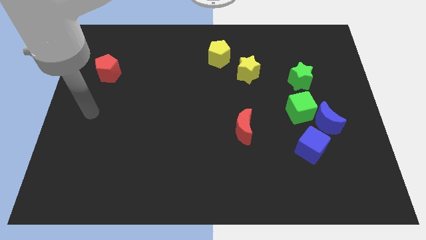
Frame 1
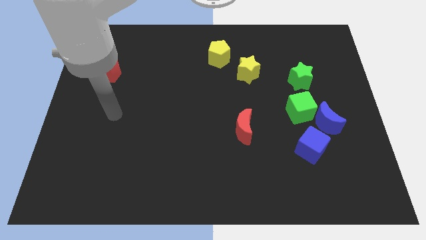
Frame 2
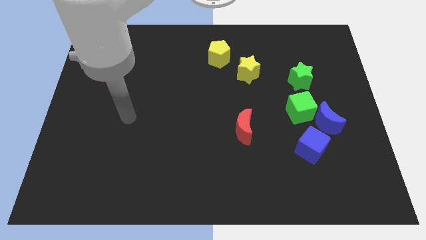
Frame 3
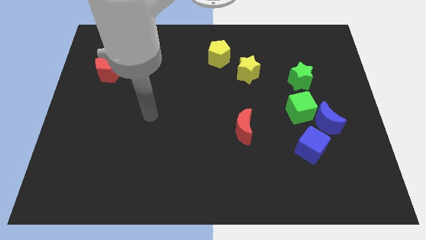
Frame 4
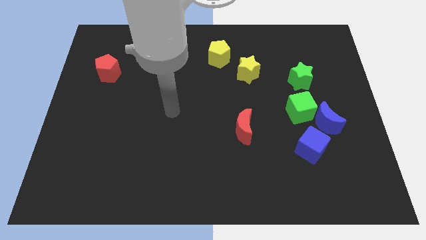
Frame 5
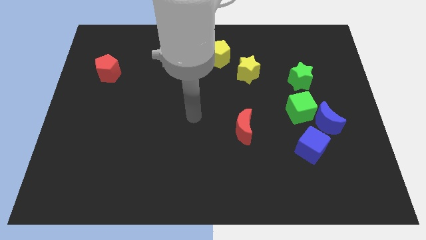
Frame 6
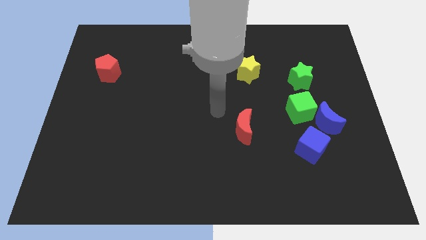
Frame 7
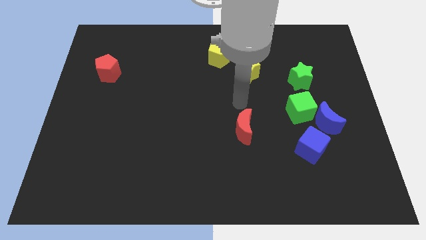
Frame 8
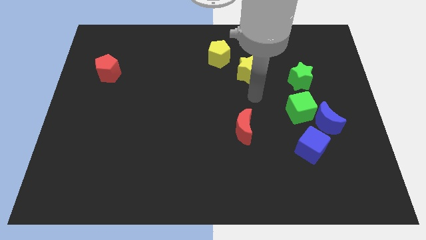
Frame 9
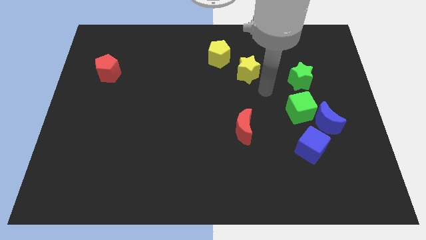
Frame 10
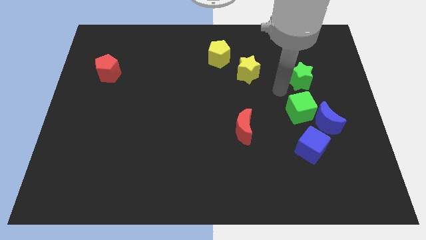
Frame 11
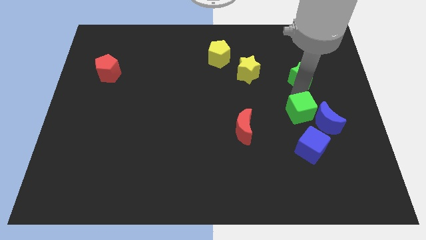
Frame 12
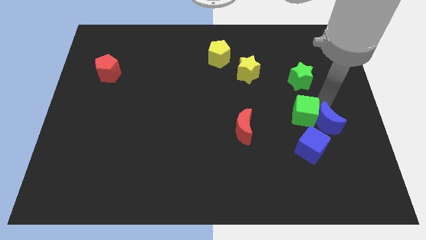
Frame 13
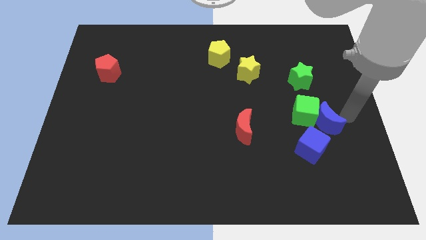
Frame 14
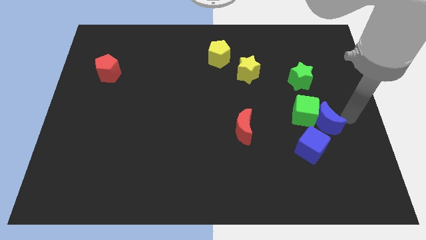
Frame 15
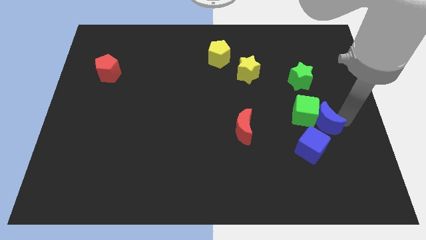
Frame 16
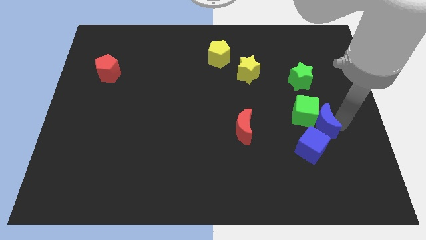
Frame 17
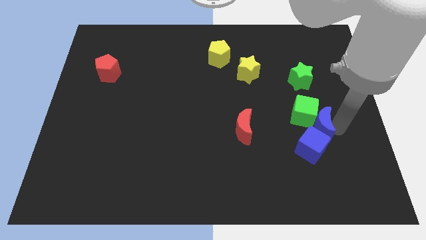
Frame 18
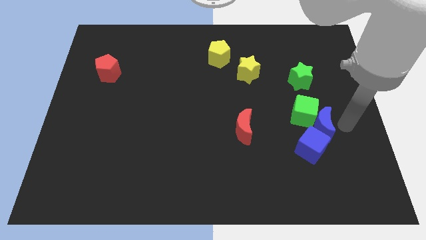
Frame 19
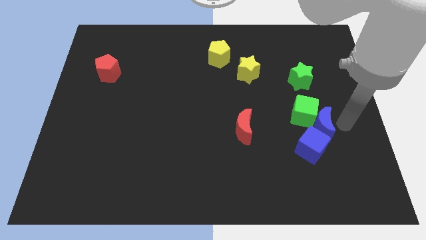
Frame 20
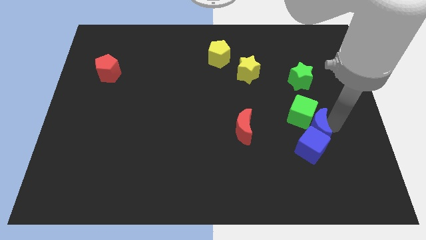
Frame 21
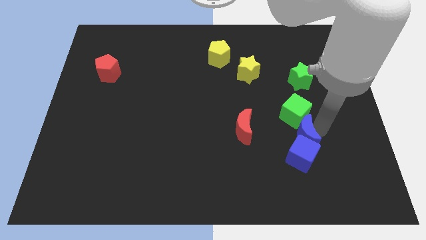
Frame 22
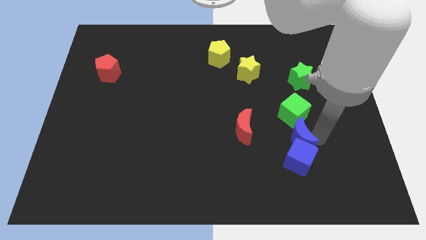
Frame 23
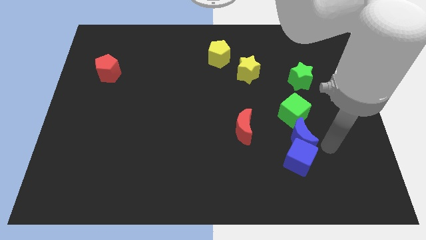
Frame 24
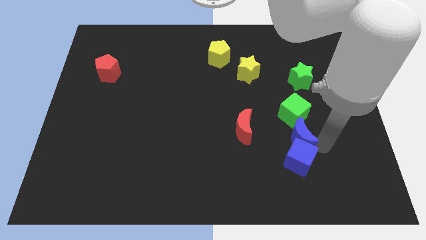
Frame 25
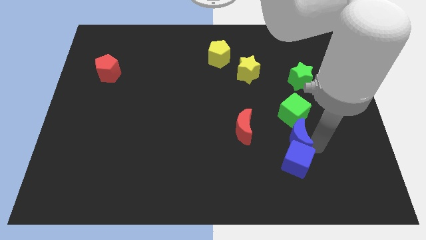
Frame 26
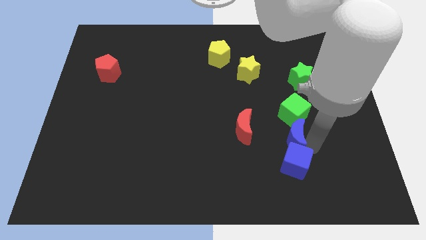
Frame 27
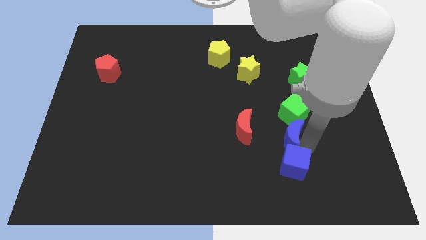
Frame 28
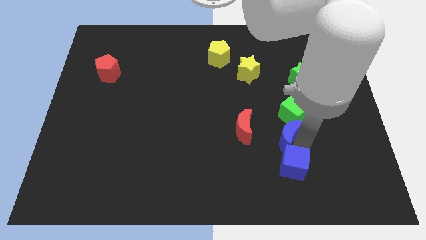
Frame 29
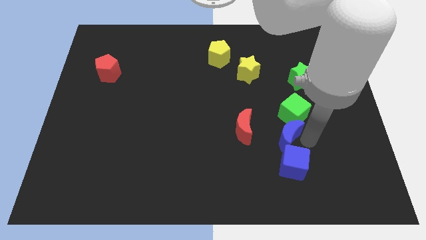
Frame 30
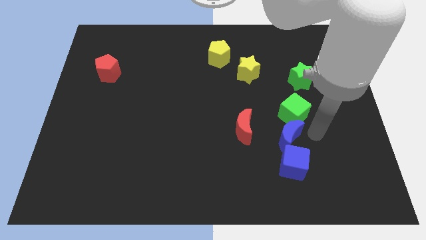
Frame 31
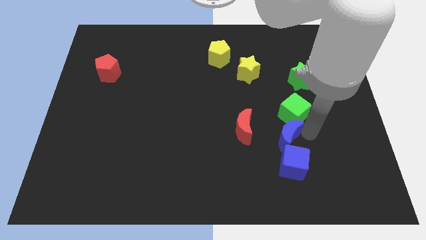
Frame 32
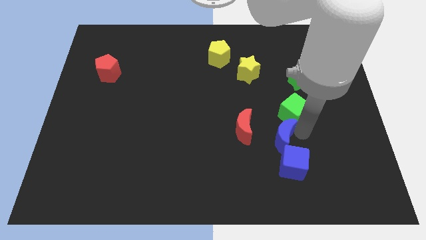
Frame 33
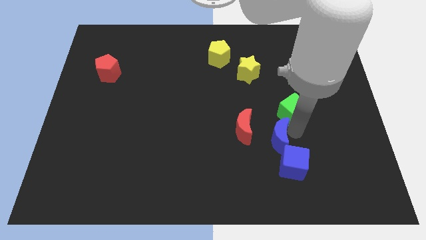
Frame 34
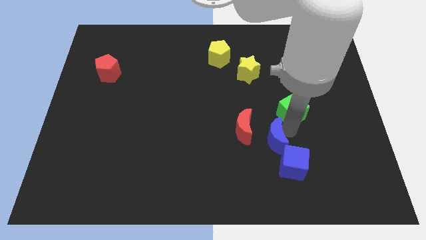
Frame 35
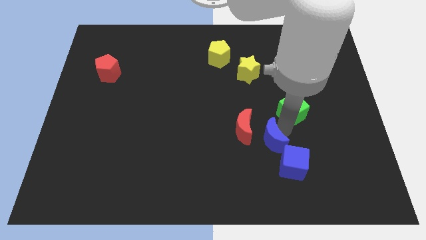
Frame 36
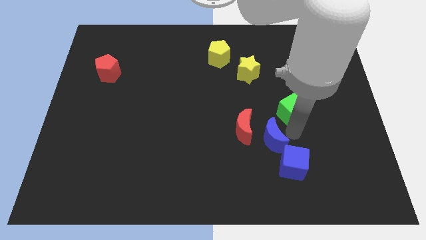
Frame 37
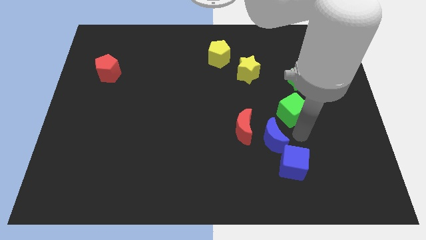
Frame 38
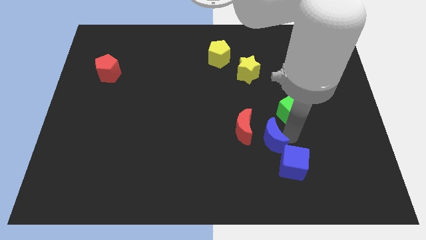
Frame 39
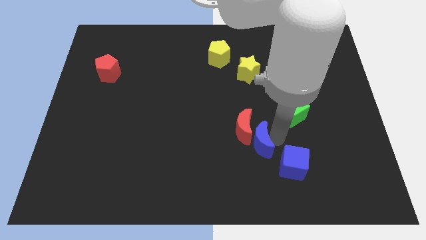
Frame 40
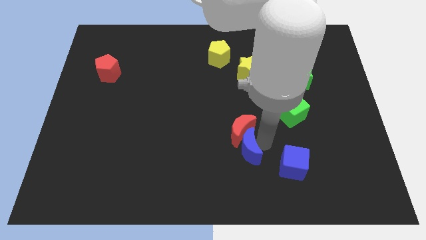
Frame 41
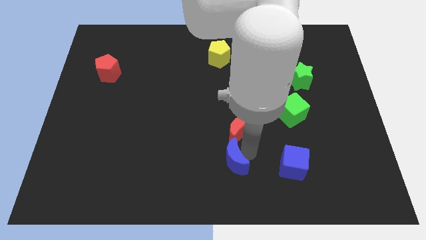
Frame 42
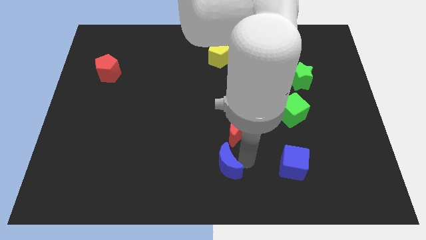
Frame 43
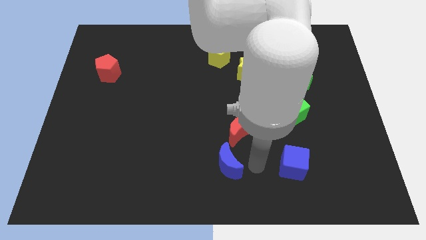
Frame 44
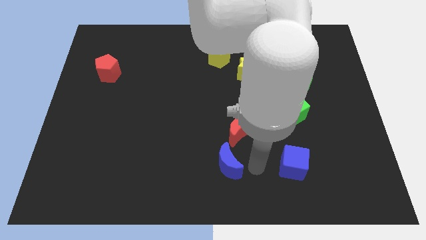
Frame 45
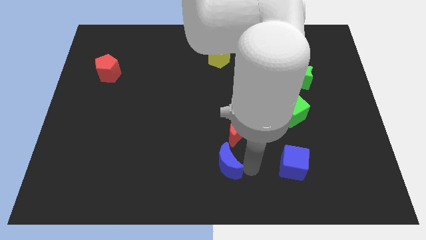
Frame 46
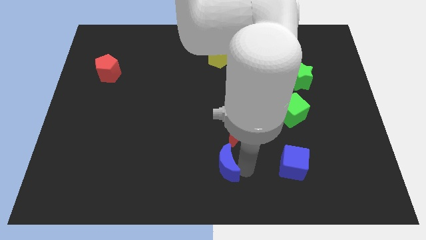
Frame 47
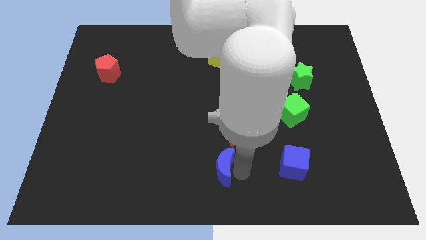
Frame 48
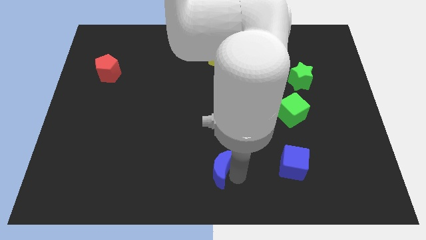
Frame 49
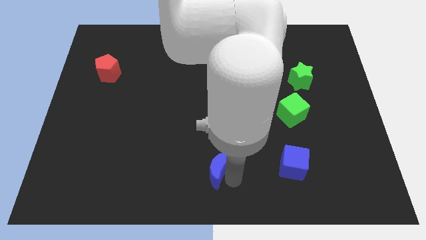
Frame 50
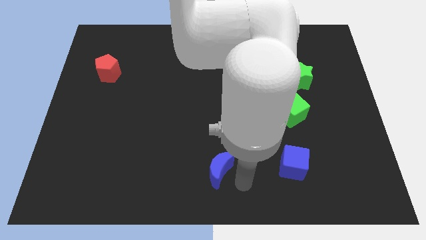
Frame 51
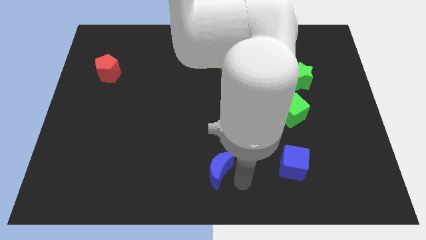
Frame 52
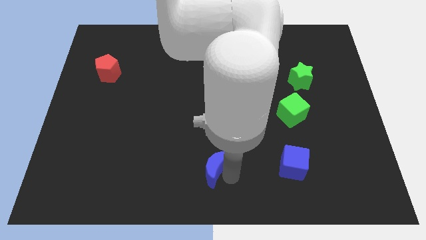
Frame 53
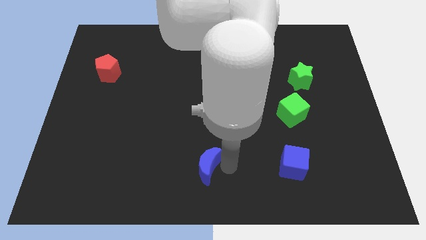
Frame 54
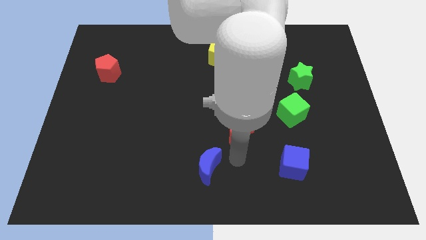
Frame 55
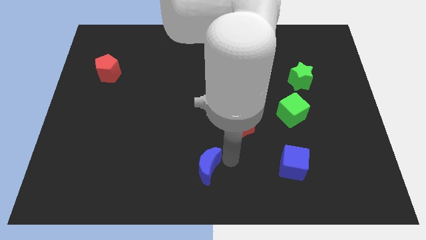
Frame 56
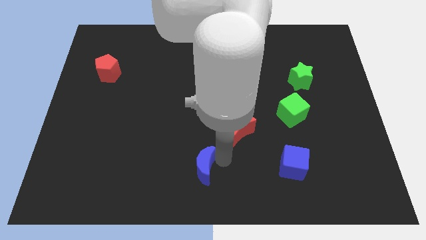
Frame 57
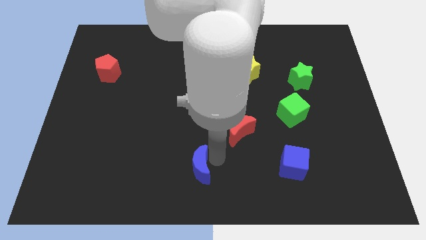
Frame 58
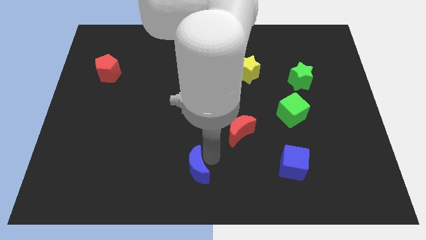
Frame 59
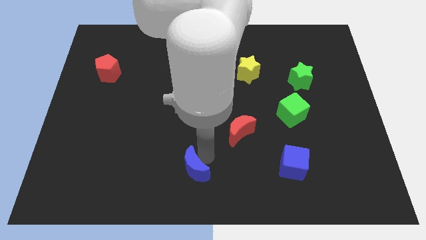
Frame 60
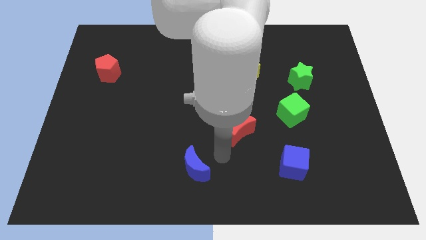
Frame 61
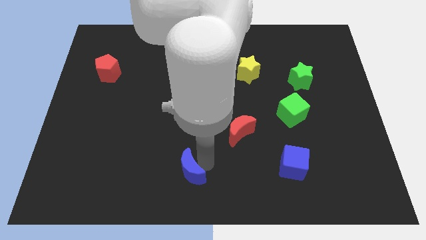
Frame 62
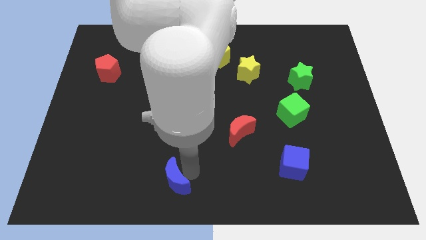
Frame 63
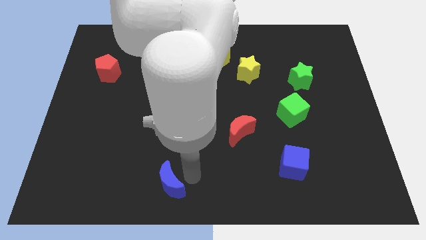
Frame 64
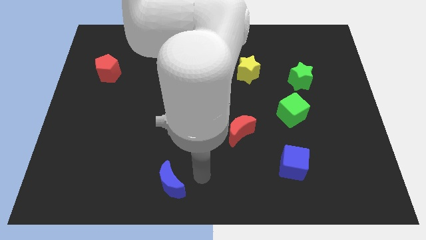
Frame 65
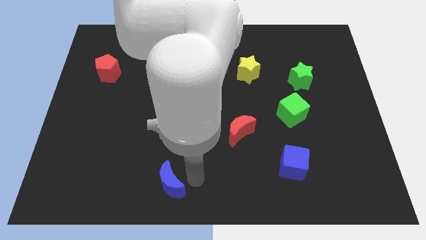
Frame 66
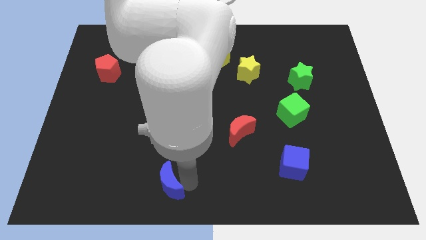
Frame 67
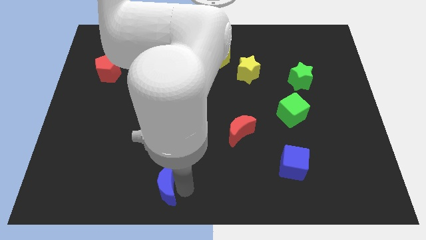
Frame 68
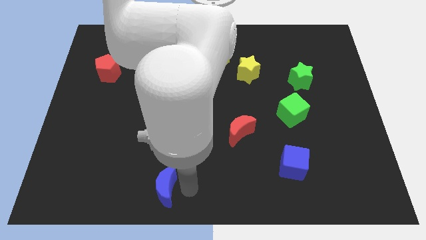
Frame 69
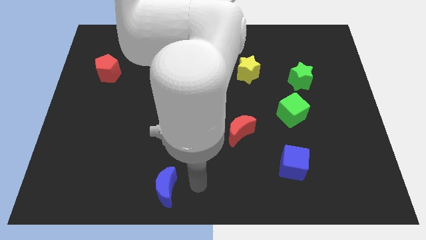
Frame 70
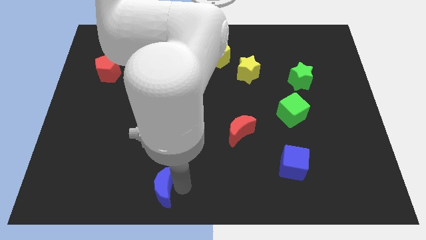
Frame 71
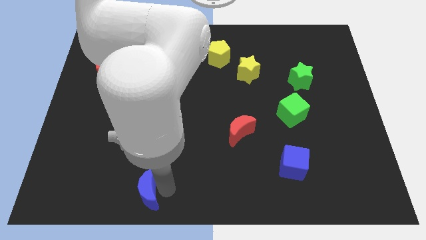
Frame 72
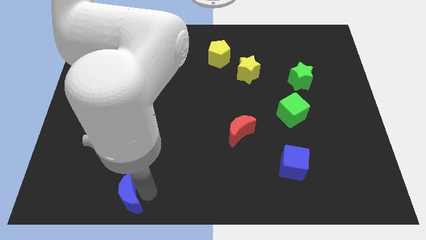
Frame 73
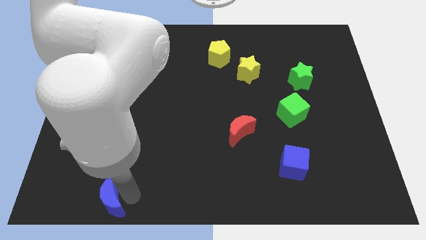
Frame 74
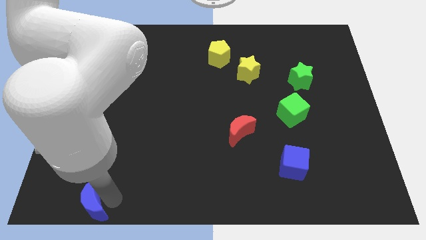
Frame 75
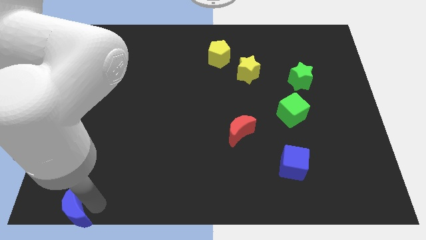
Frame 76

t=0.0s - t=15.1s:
slide the blue moon to the bottom left of the board
